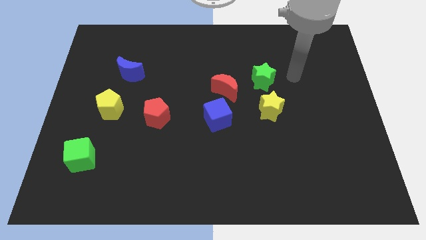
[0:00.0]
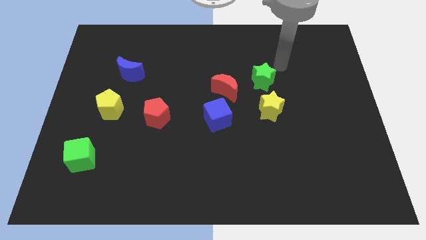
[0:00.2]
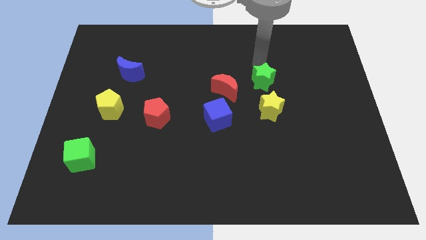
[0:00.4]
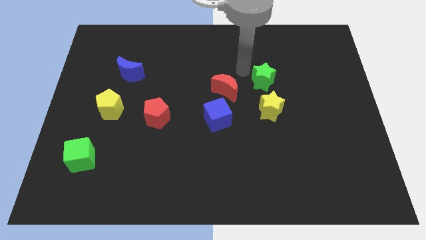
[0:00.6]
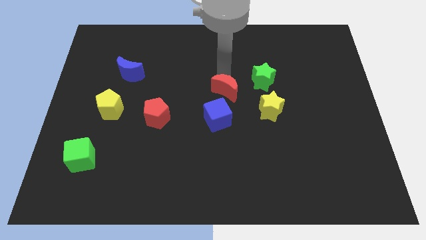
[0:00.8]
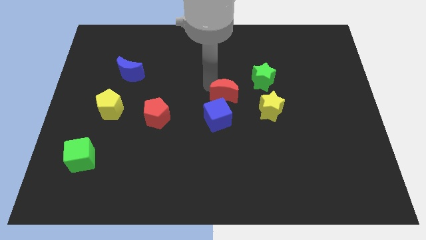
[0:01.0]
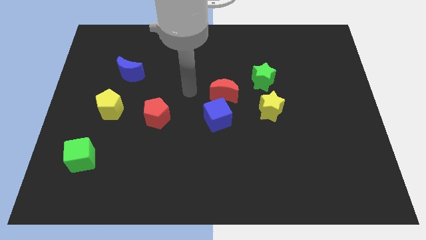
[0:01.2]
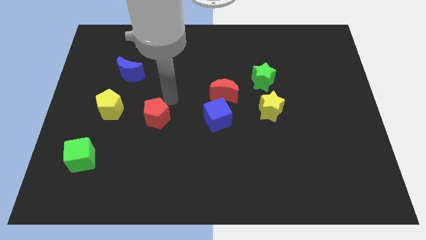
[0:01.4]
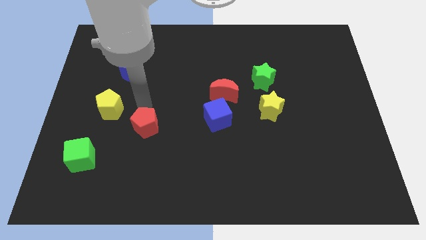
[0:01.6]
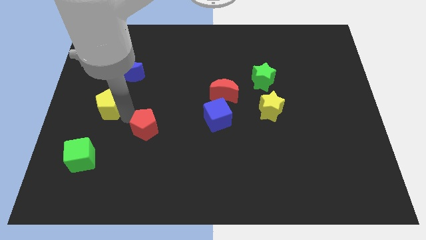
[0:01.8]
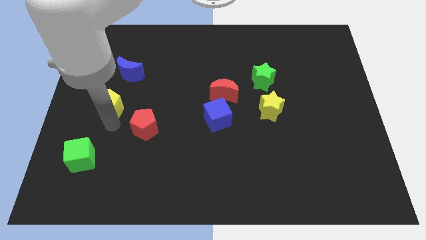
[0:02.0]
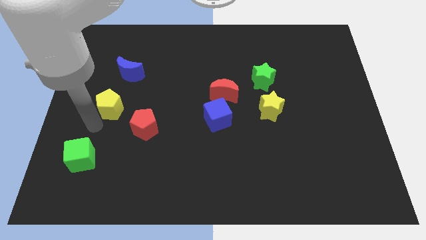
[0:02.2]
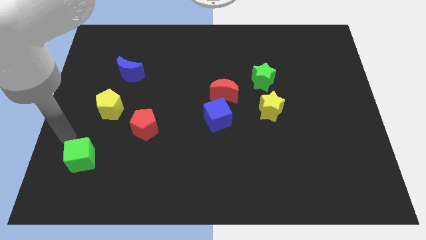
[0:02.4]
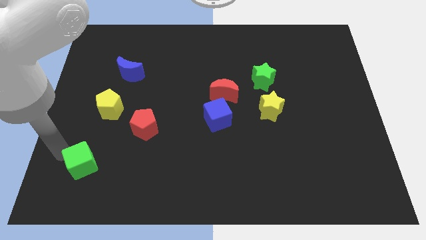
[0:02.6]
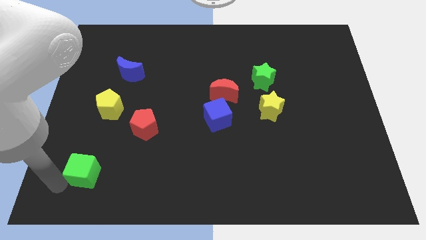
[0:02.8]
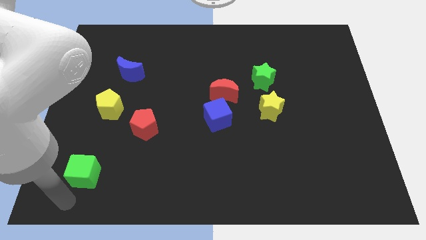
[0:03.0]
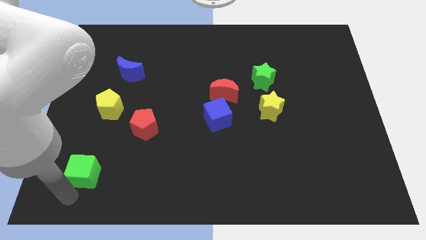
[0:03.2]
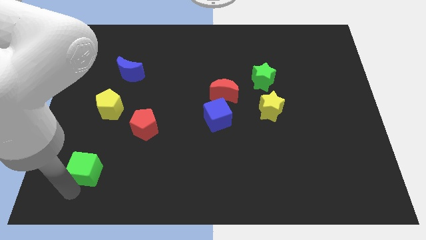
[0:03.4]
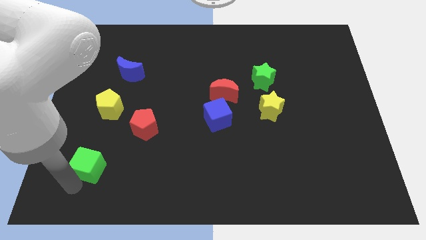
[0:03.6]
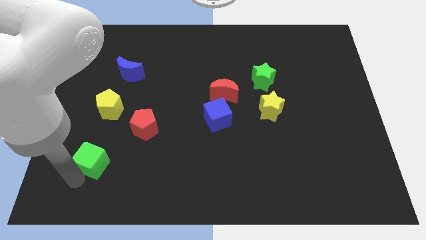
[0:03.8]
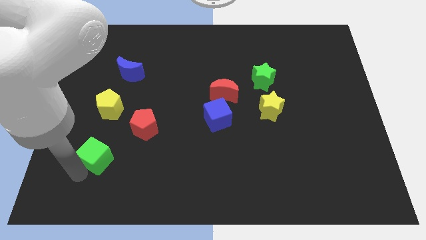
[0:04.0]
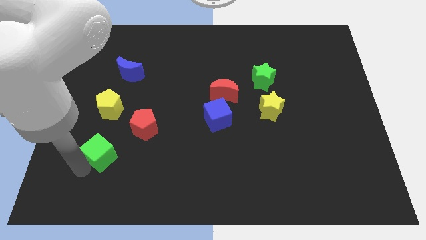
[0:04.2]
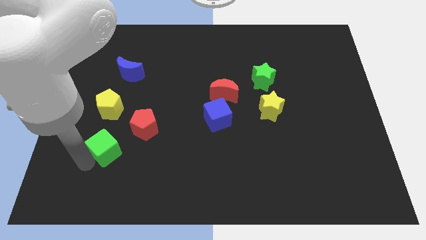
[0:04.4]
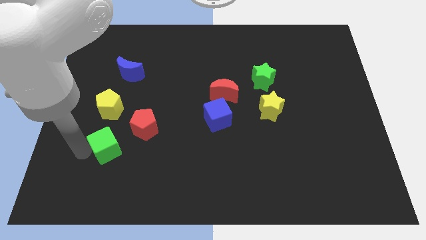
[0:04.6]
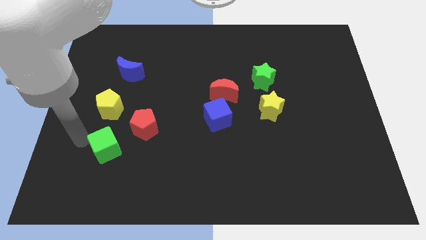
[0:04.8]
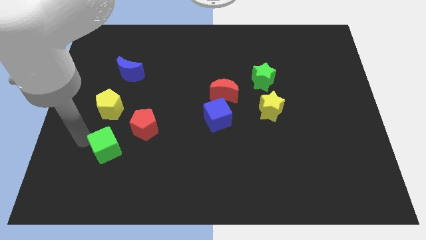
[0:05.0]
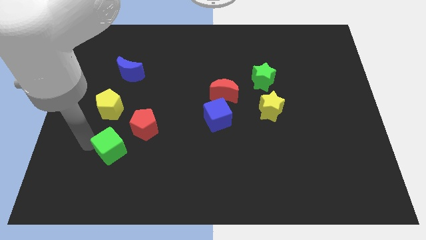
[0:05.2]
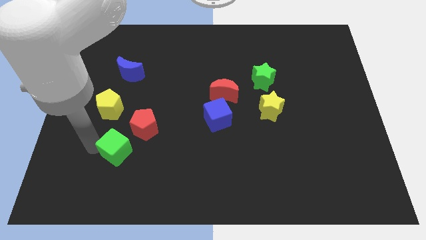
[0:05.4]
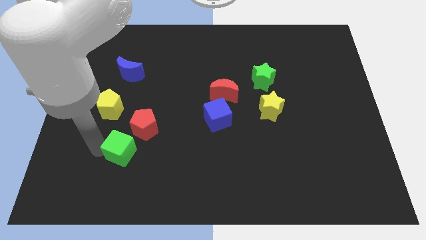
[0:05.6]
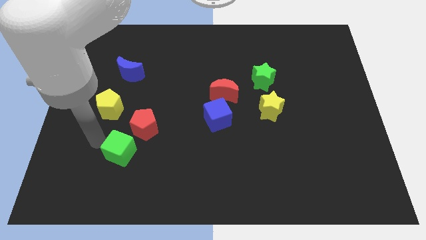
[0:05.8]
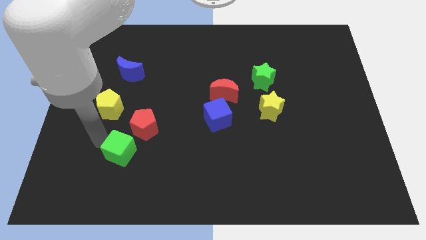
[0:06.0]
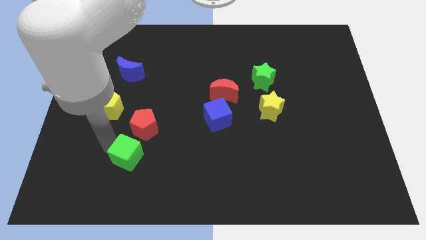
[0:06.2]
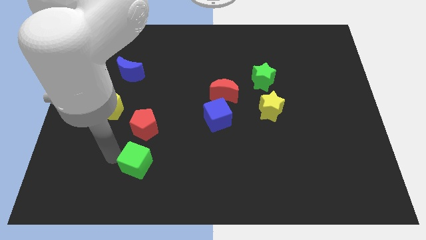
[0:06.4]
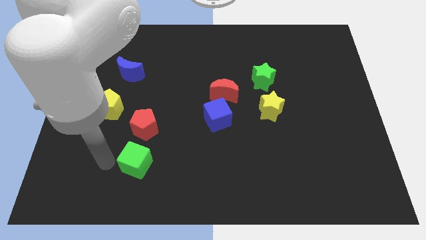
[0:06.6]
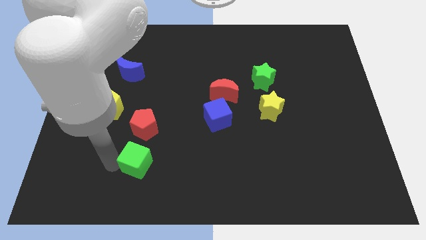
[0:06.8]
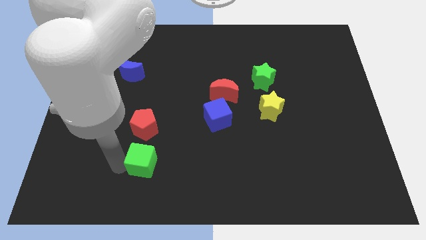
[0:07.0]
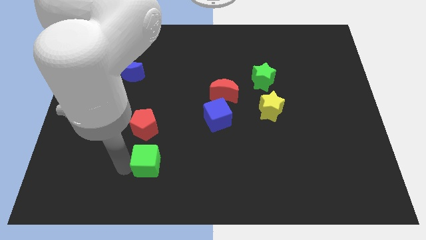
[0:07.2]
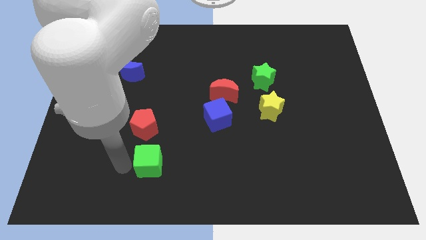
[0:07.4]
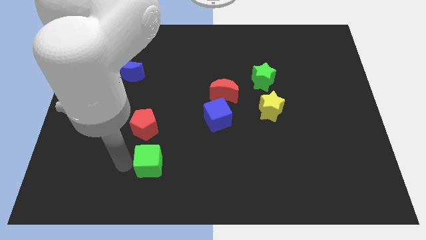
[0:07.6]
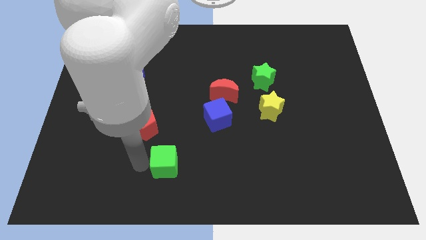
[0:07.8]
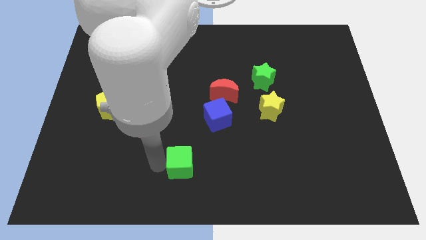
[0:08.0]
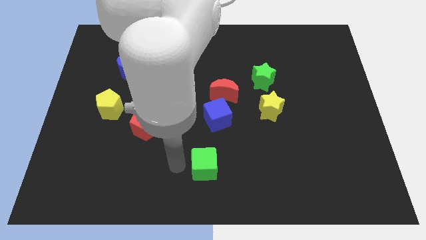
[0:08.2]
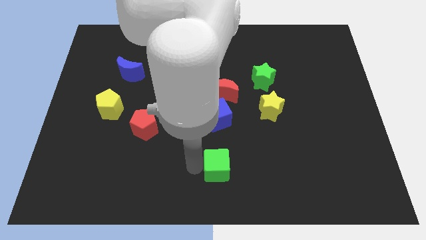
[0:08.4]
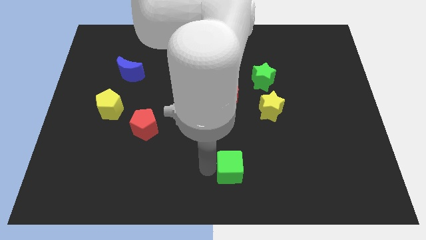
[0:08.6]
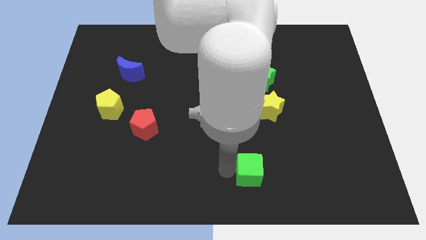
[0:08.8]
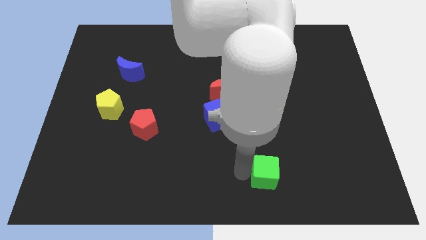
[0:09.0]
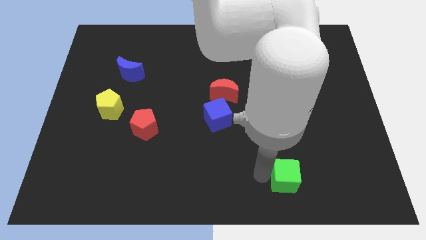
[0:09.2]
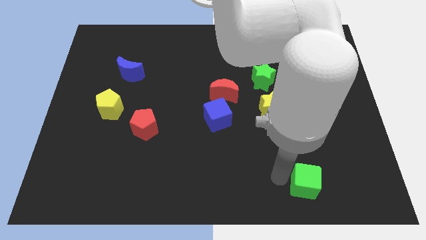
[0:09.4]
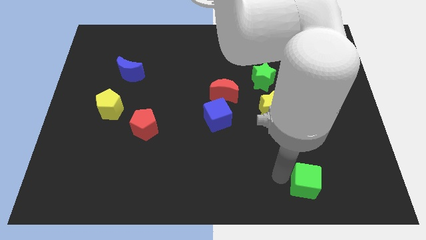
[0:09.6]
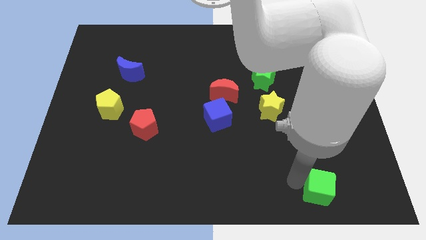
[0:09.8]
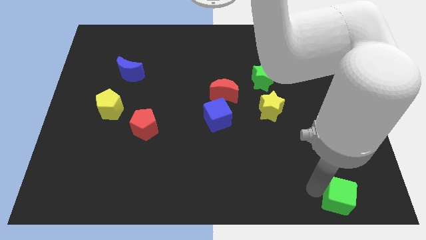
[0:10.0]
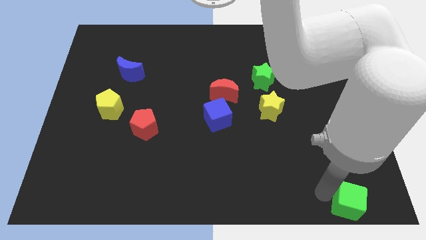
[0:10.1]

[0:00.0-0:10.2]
slide the green cube to the bottom right corner

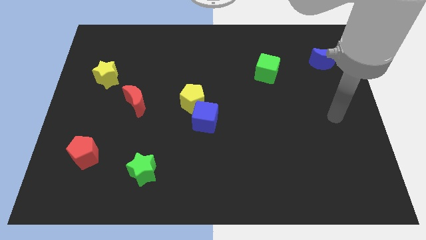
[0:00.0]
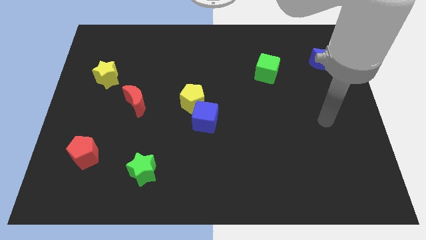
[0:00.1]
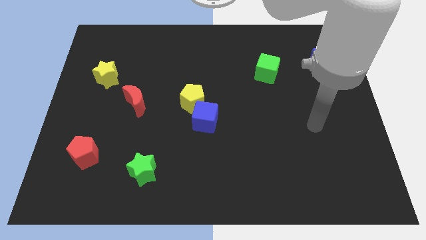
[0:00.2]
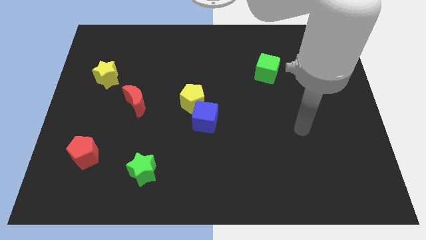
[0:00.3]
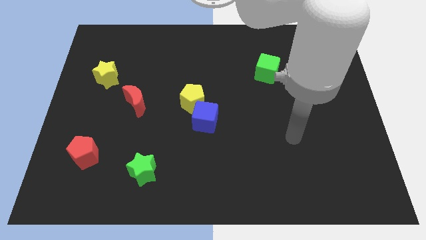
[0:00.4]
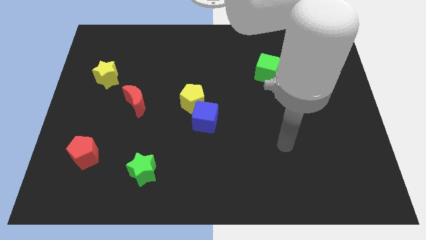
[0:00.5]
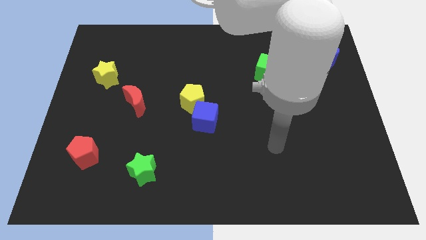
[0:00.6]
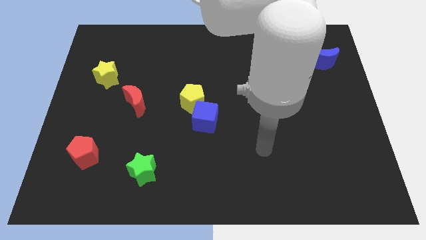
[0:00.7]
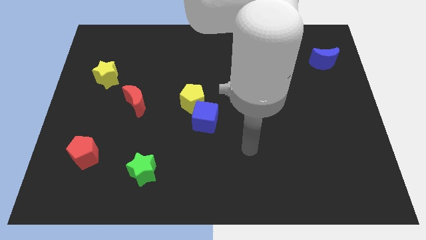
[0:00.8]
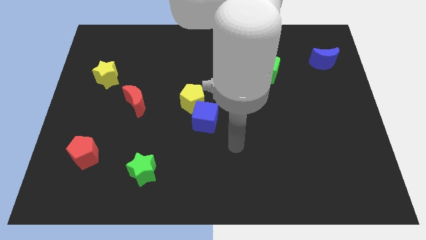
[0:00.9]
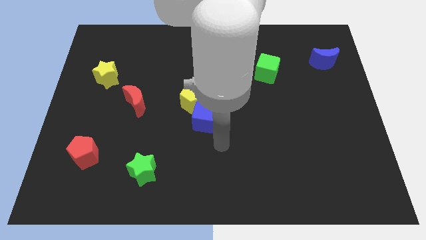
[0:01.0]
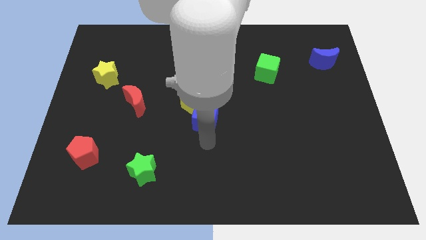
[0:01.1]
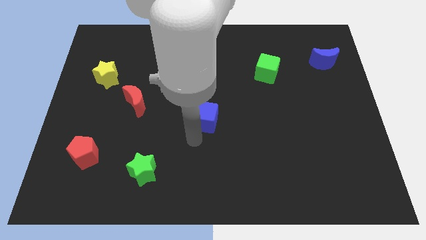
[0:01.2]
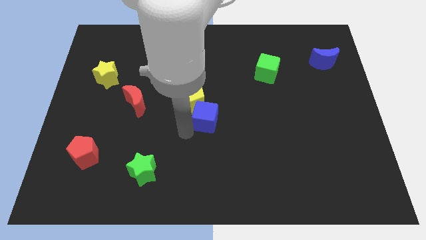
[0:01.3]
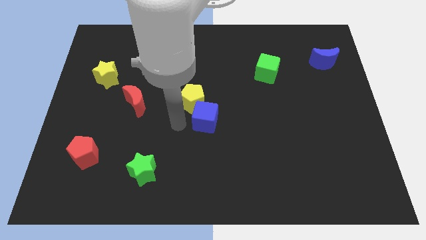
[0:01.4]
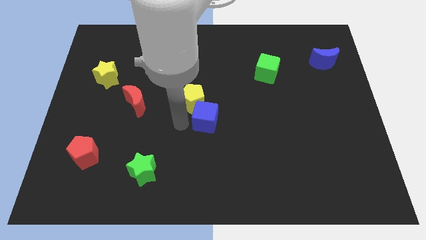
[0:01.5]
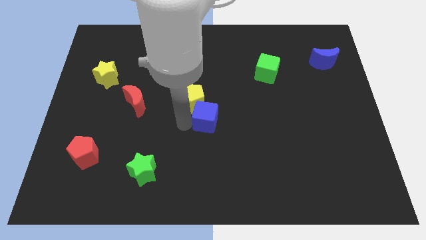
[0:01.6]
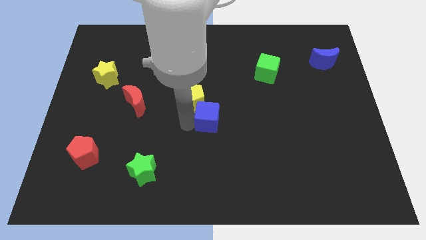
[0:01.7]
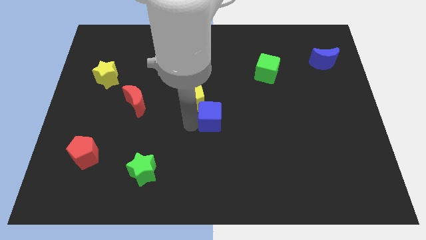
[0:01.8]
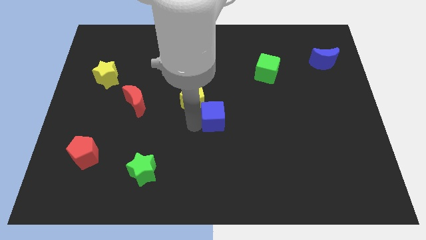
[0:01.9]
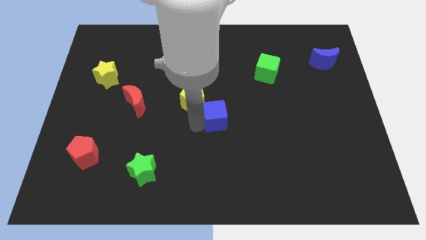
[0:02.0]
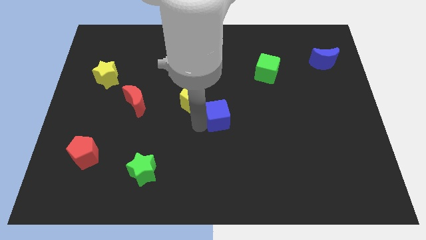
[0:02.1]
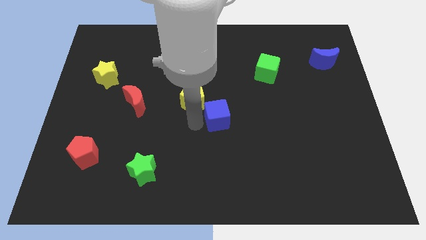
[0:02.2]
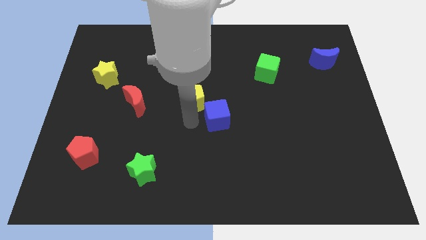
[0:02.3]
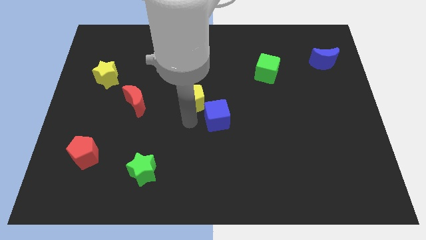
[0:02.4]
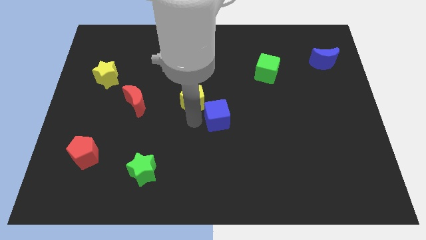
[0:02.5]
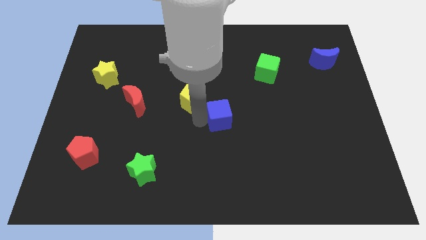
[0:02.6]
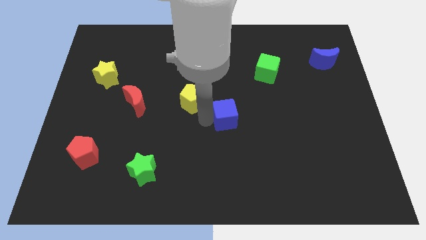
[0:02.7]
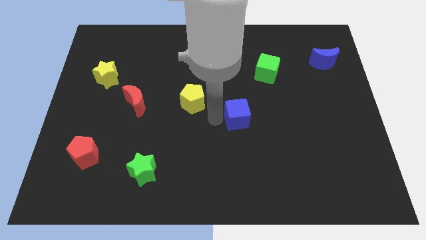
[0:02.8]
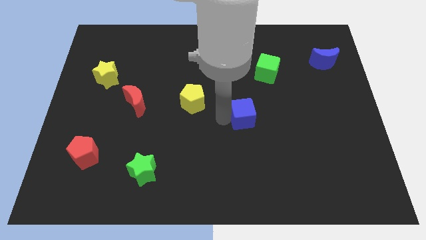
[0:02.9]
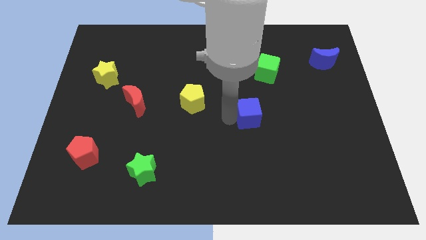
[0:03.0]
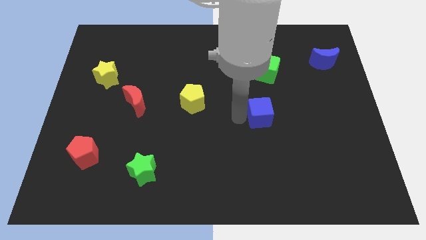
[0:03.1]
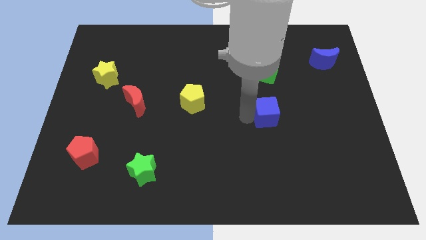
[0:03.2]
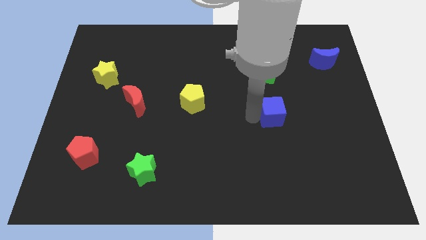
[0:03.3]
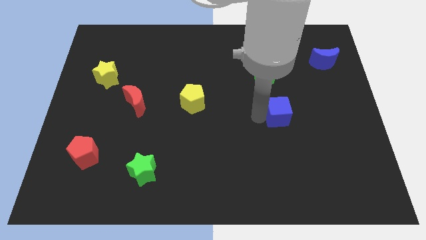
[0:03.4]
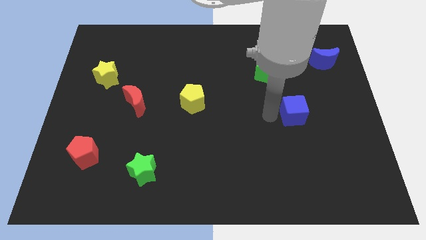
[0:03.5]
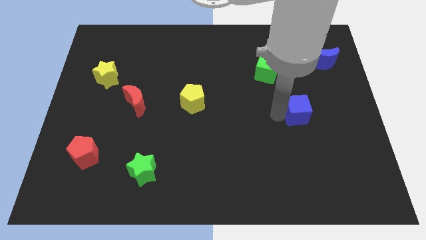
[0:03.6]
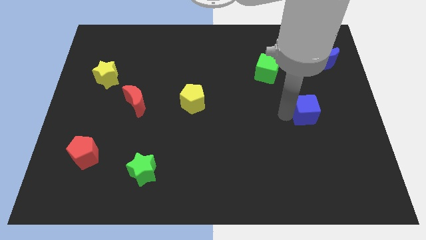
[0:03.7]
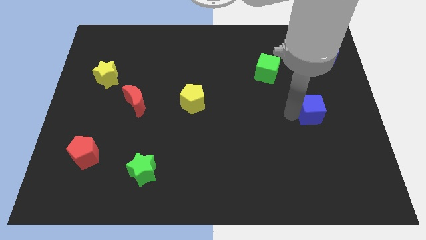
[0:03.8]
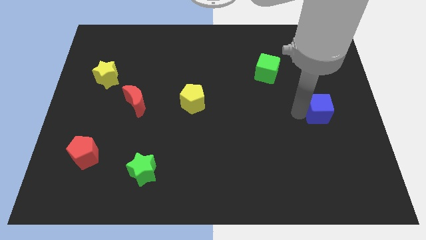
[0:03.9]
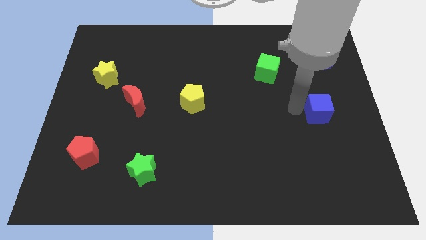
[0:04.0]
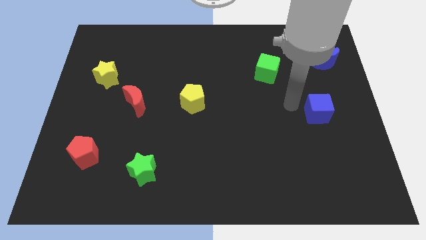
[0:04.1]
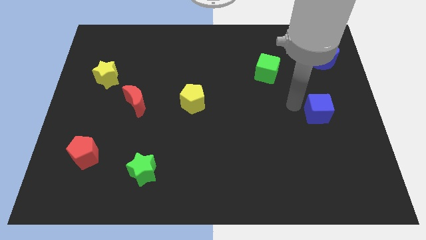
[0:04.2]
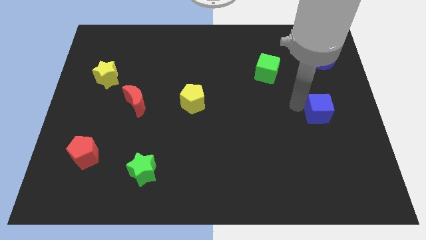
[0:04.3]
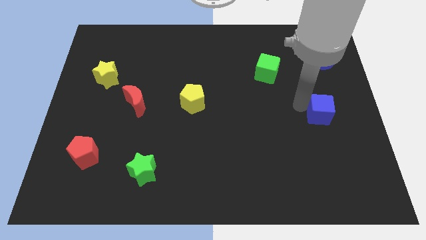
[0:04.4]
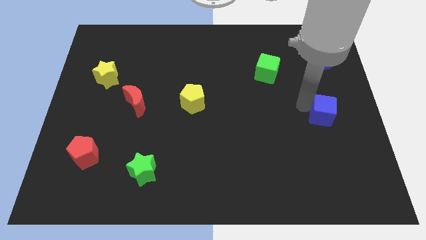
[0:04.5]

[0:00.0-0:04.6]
move the blue cube to the right side
